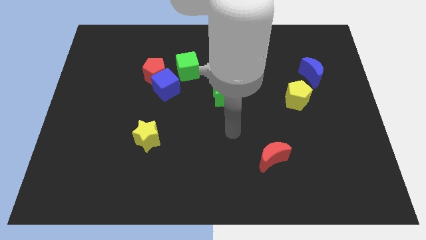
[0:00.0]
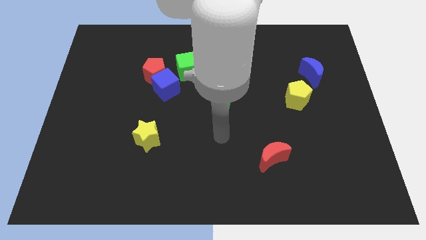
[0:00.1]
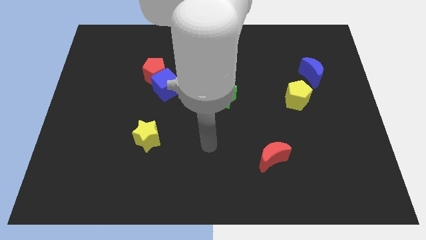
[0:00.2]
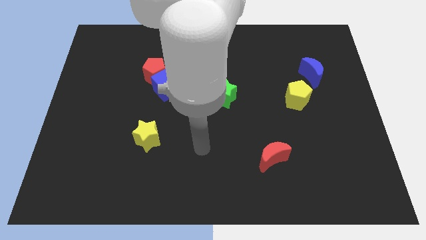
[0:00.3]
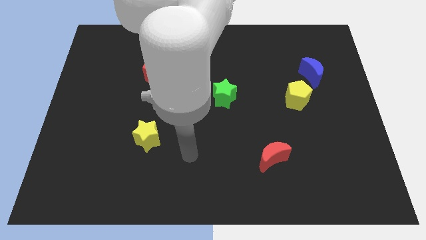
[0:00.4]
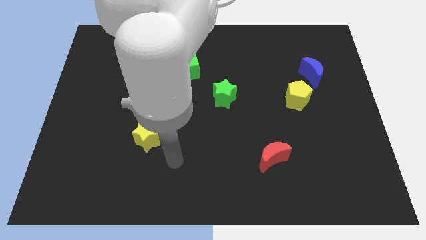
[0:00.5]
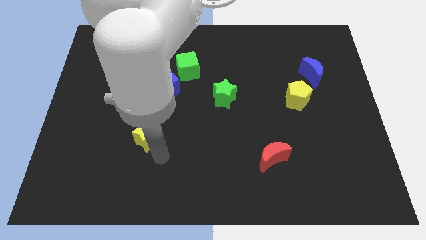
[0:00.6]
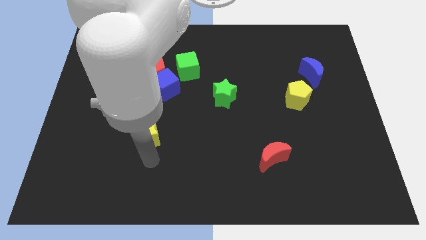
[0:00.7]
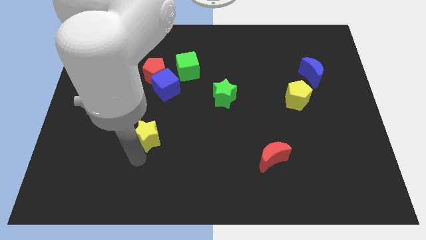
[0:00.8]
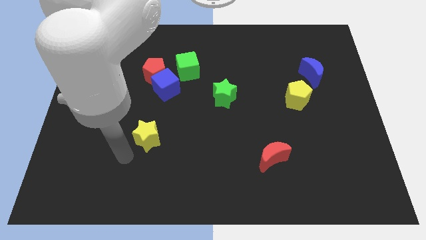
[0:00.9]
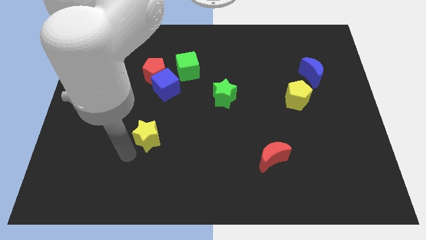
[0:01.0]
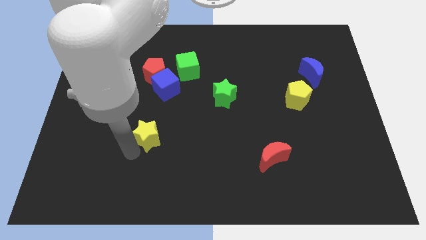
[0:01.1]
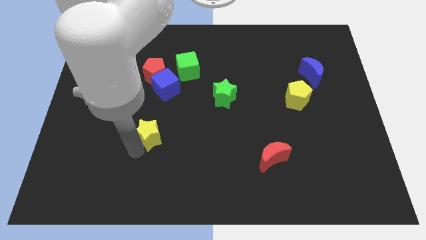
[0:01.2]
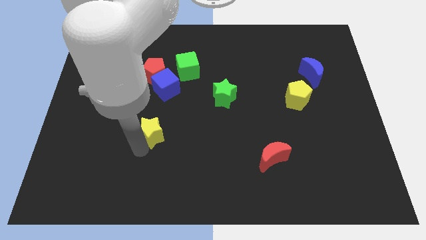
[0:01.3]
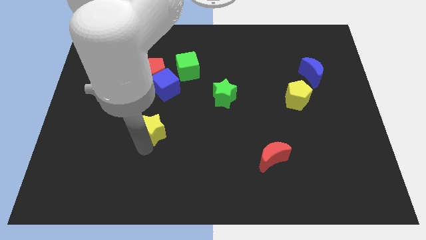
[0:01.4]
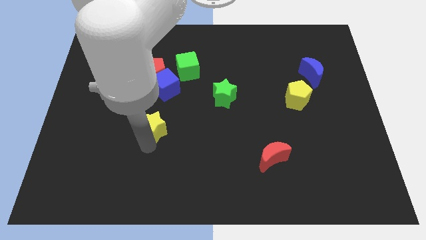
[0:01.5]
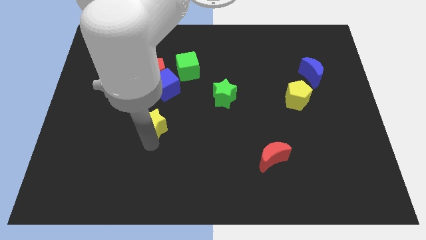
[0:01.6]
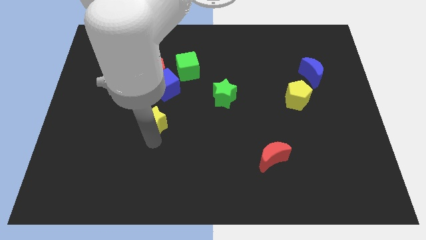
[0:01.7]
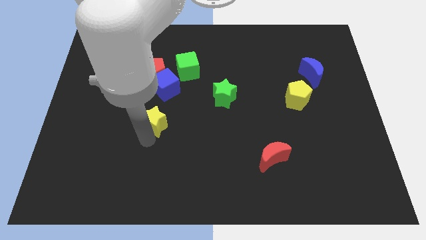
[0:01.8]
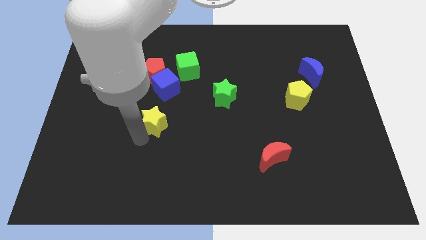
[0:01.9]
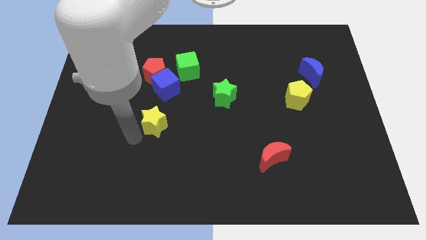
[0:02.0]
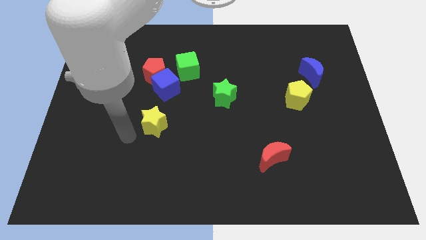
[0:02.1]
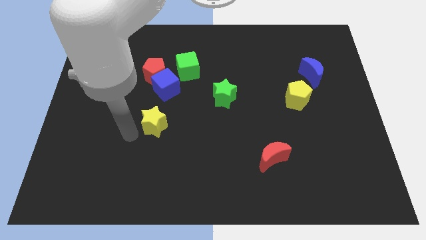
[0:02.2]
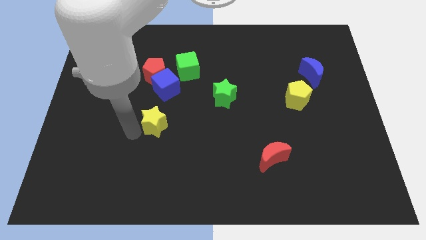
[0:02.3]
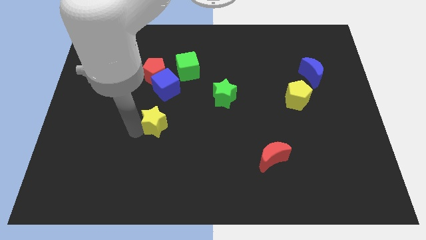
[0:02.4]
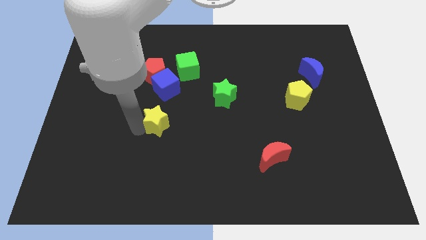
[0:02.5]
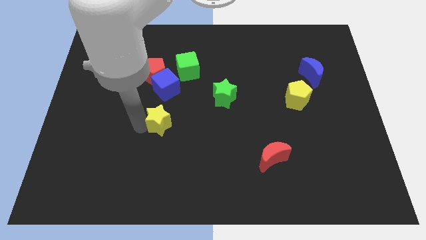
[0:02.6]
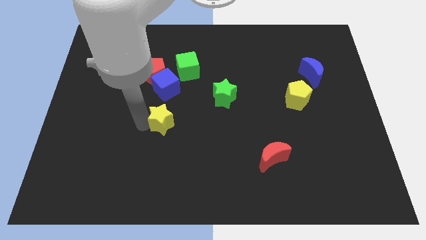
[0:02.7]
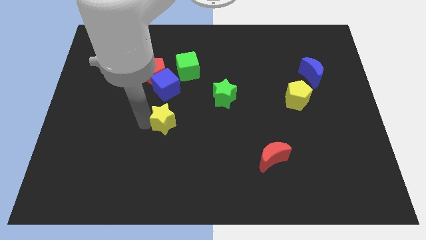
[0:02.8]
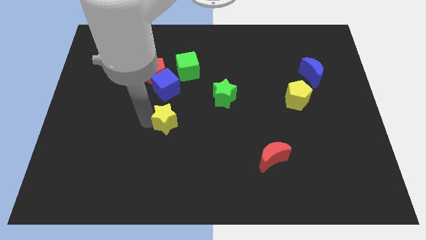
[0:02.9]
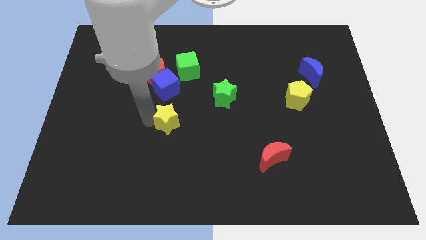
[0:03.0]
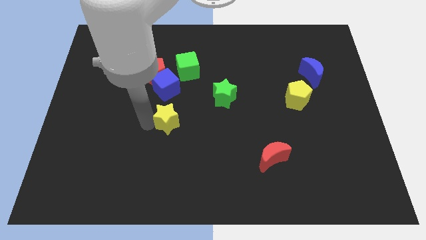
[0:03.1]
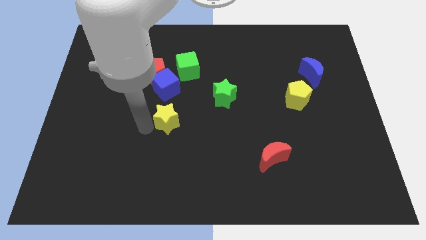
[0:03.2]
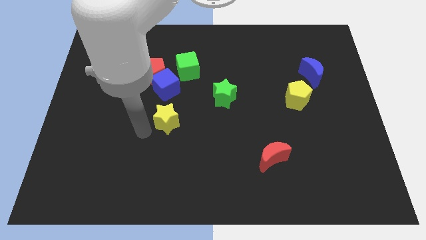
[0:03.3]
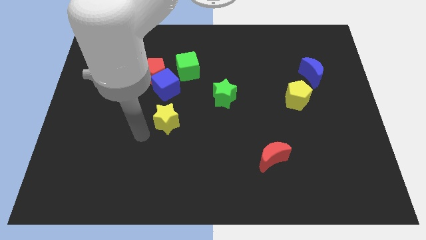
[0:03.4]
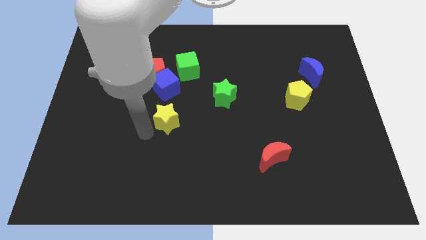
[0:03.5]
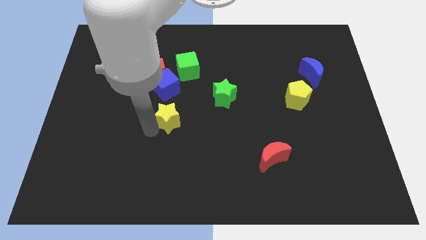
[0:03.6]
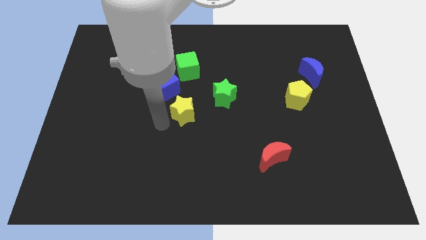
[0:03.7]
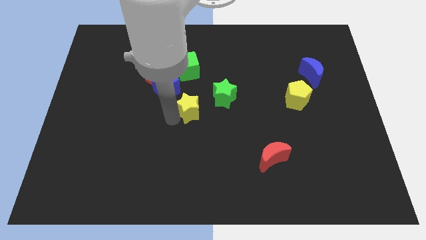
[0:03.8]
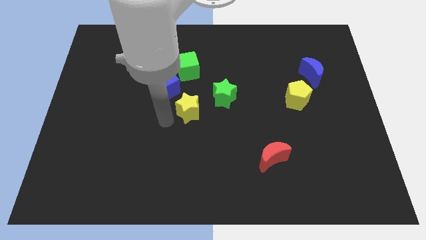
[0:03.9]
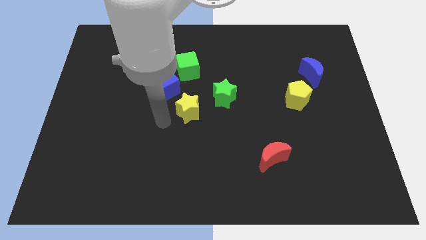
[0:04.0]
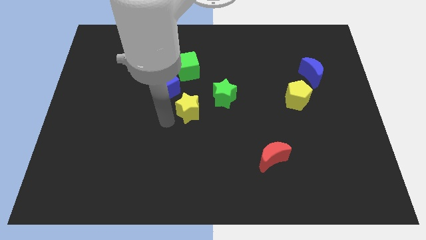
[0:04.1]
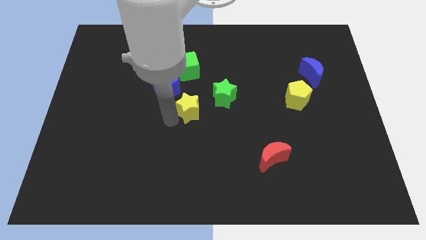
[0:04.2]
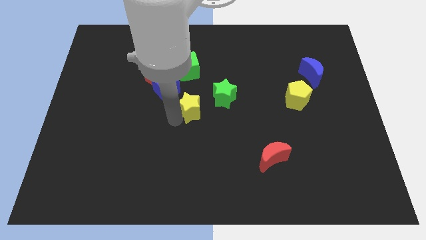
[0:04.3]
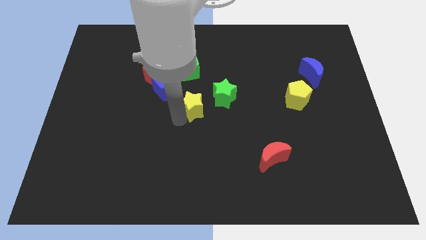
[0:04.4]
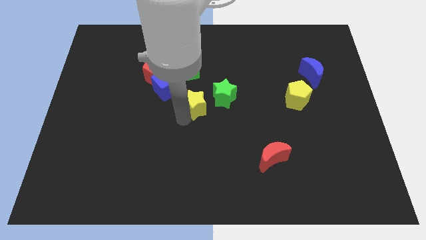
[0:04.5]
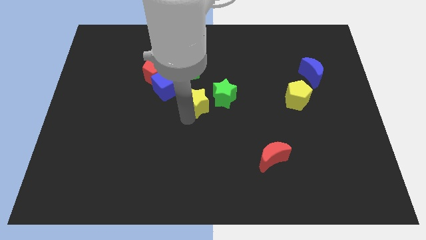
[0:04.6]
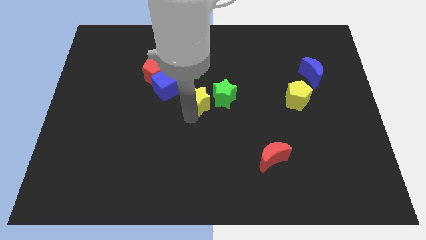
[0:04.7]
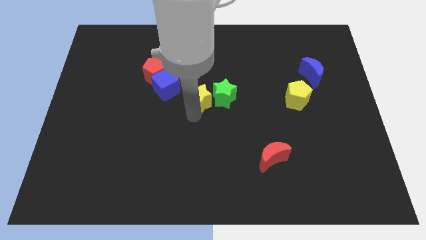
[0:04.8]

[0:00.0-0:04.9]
put the yellow star to the green star

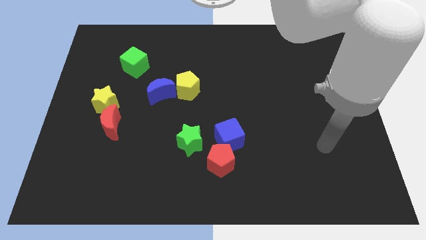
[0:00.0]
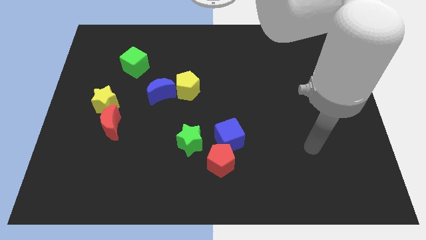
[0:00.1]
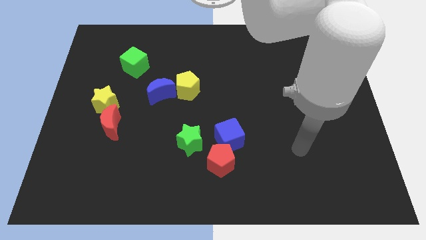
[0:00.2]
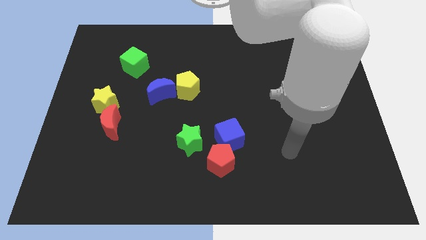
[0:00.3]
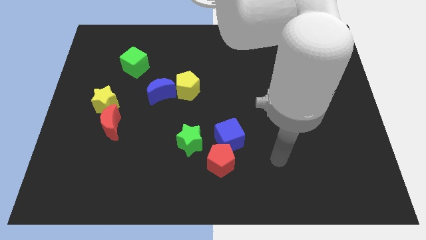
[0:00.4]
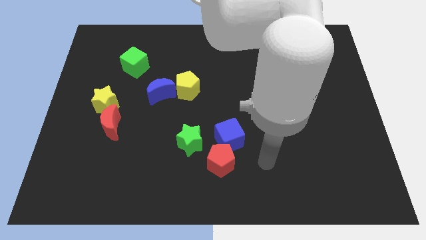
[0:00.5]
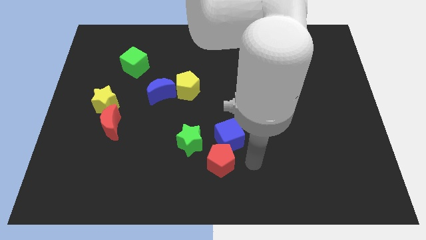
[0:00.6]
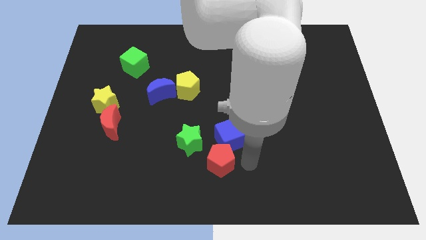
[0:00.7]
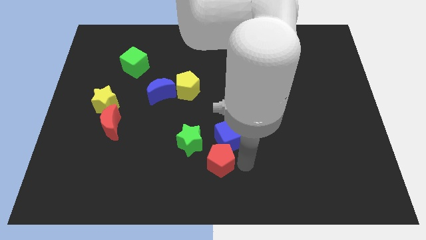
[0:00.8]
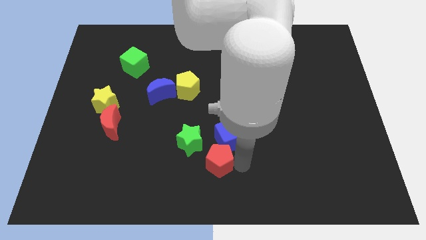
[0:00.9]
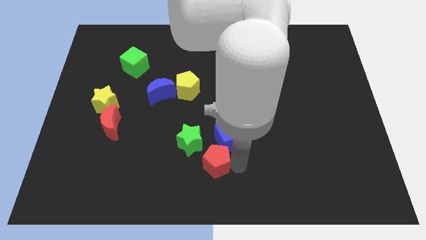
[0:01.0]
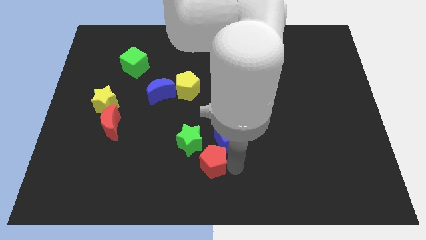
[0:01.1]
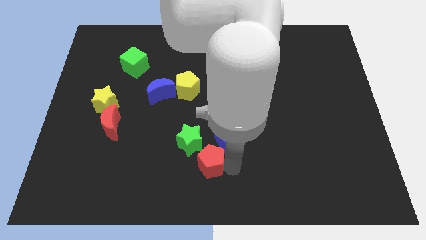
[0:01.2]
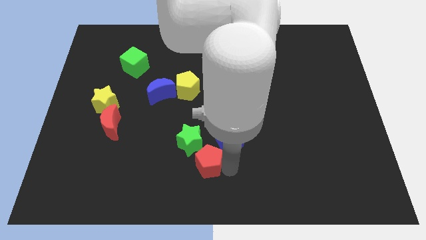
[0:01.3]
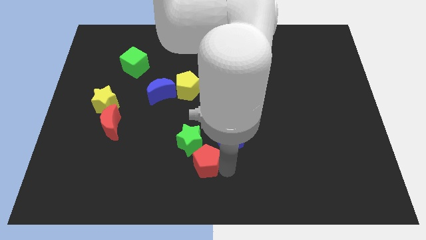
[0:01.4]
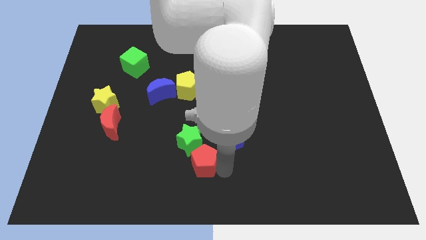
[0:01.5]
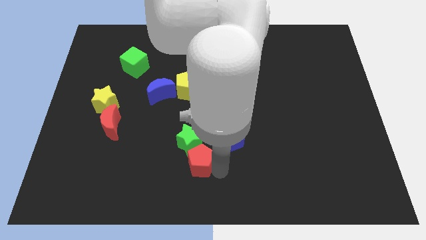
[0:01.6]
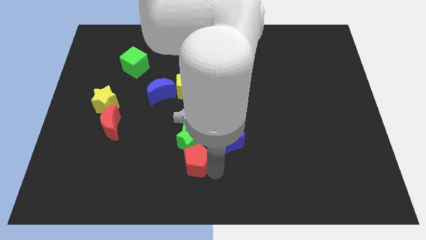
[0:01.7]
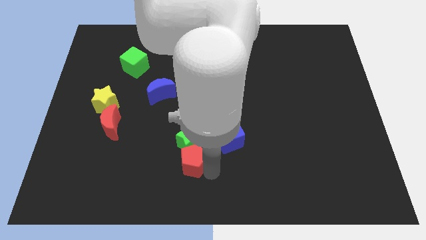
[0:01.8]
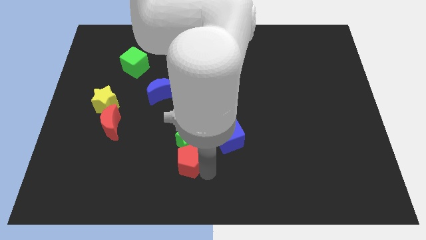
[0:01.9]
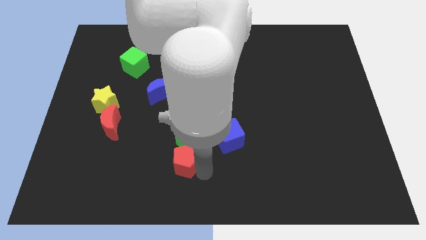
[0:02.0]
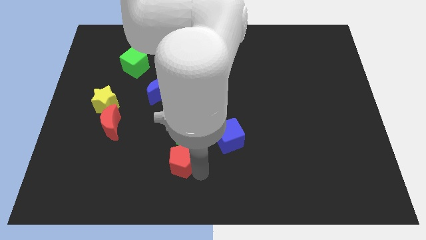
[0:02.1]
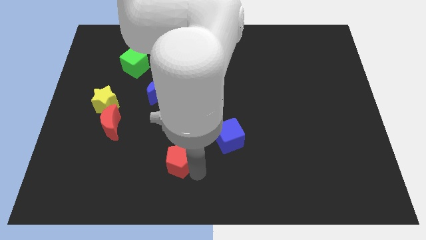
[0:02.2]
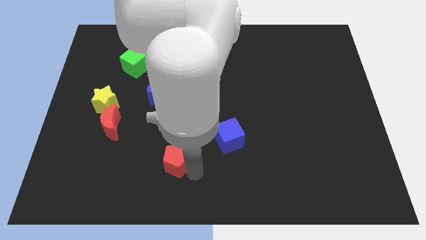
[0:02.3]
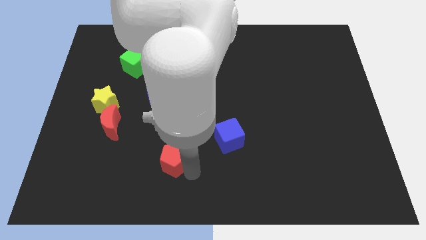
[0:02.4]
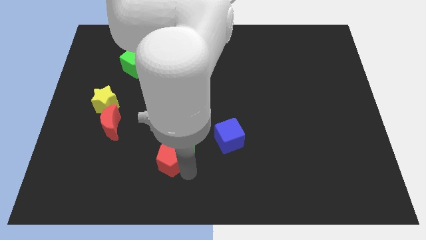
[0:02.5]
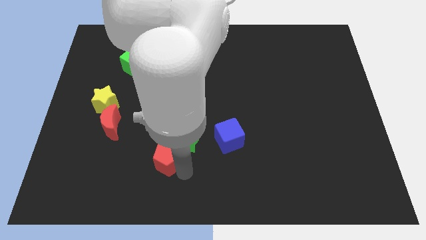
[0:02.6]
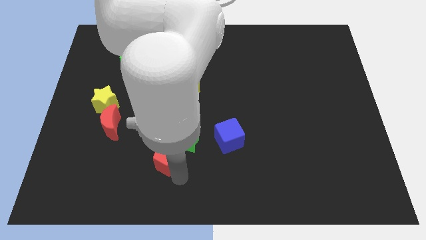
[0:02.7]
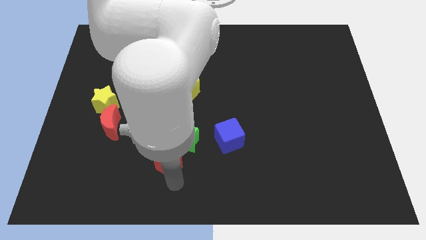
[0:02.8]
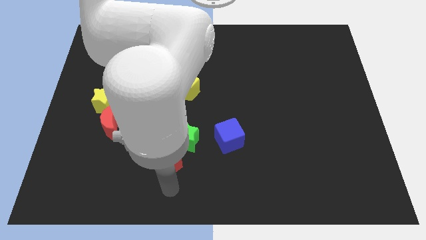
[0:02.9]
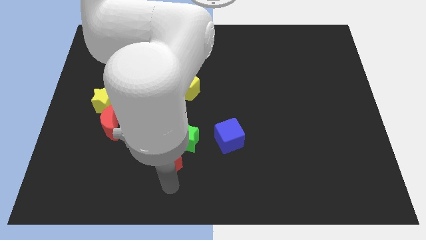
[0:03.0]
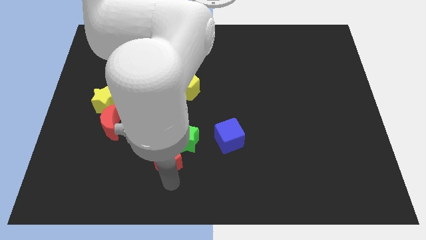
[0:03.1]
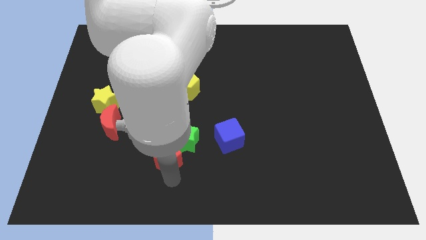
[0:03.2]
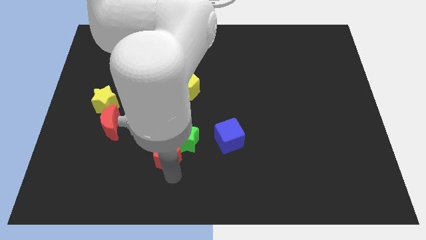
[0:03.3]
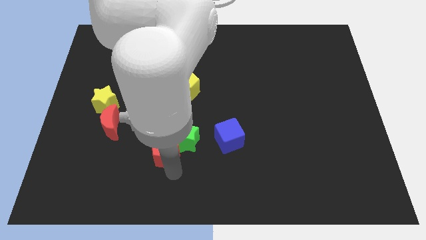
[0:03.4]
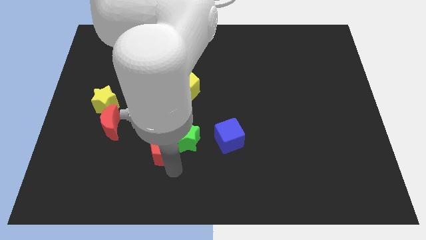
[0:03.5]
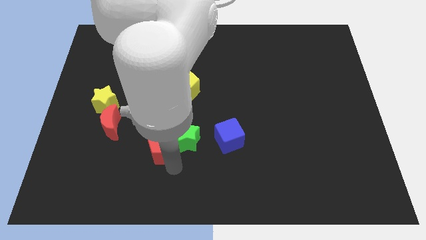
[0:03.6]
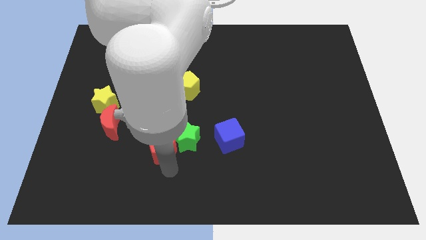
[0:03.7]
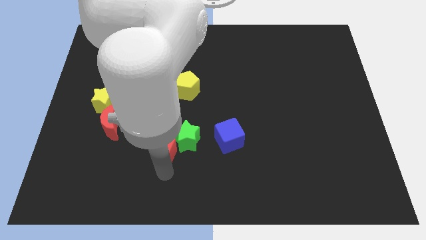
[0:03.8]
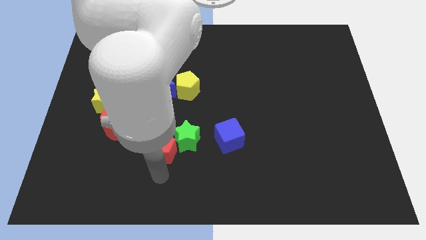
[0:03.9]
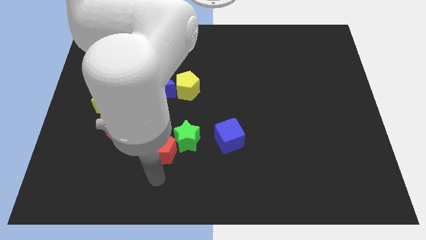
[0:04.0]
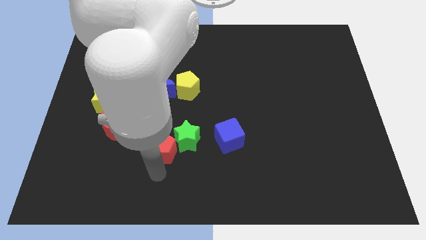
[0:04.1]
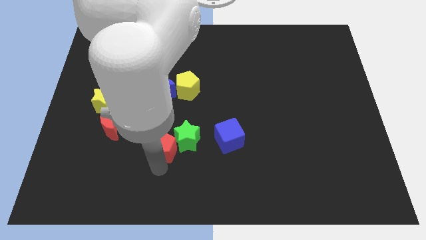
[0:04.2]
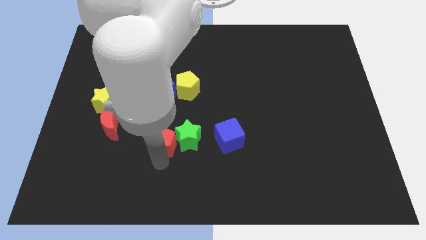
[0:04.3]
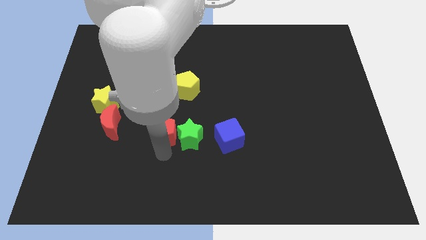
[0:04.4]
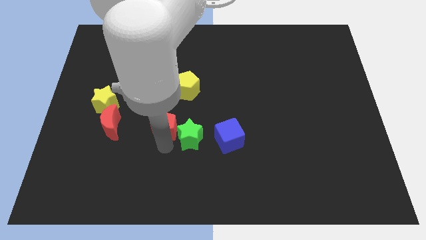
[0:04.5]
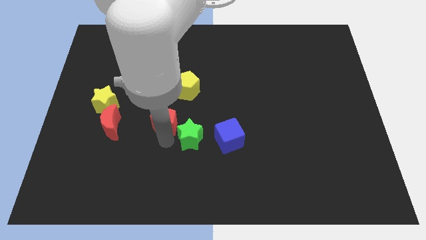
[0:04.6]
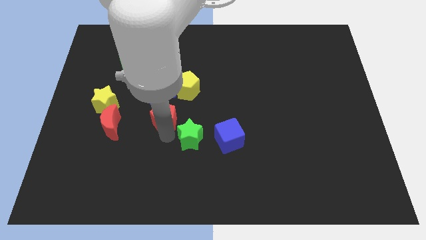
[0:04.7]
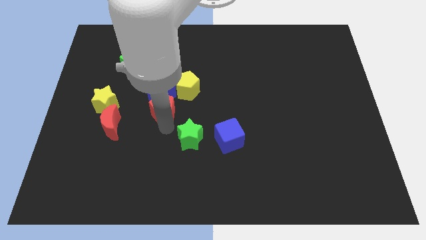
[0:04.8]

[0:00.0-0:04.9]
put the red pentagon towards the blue moon
